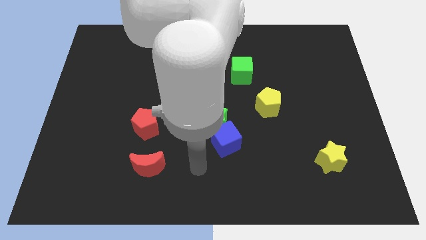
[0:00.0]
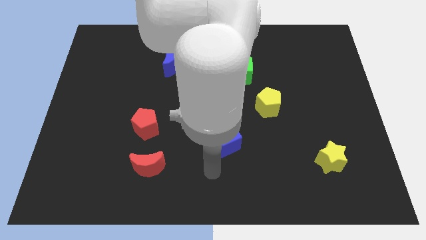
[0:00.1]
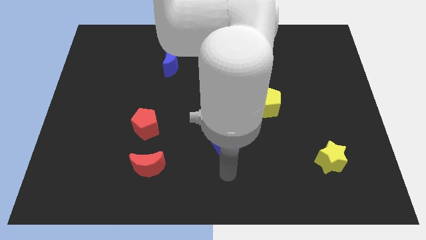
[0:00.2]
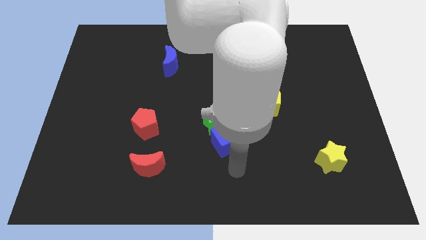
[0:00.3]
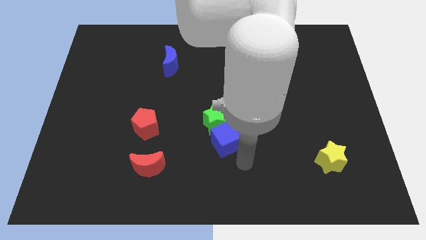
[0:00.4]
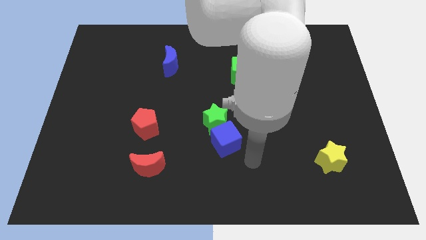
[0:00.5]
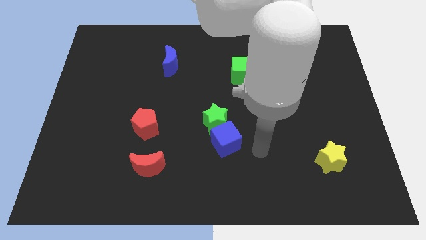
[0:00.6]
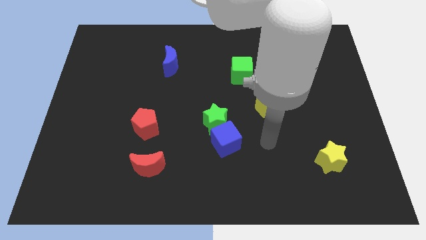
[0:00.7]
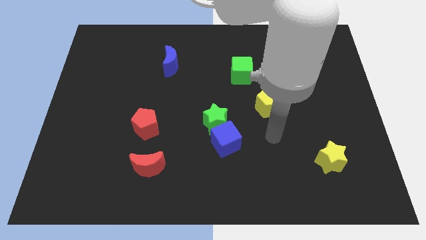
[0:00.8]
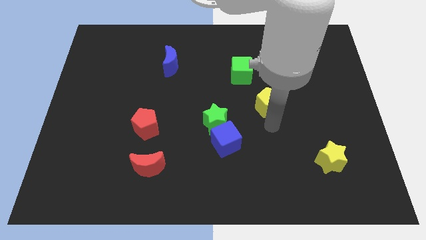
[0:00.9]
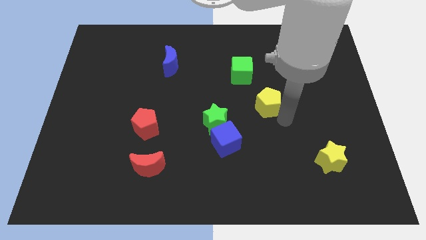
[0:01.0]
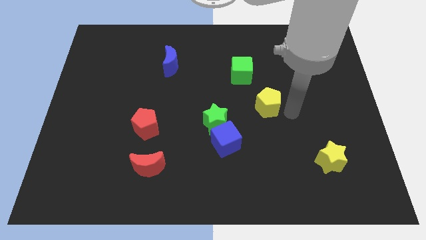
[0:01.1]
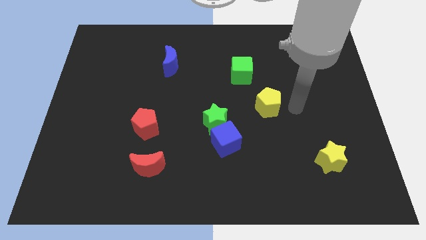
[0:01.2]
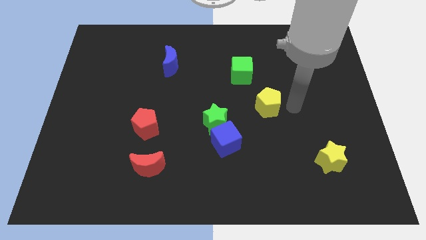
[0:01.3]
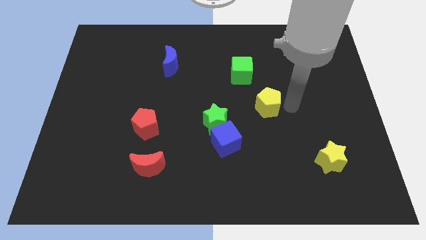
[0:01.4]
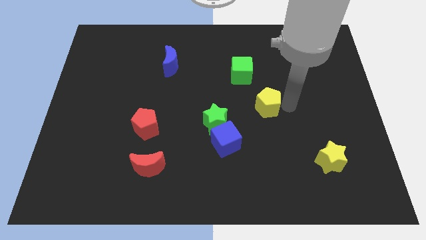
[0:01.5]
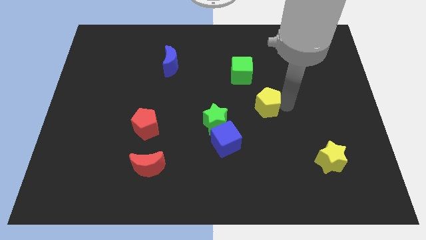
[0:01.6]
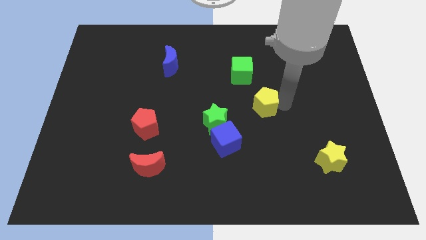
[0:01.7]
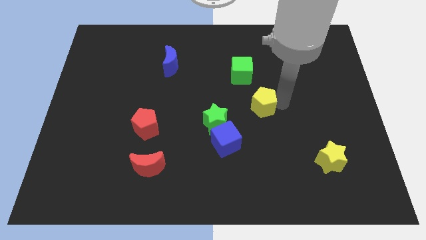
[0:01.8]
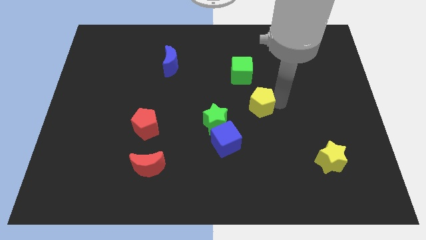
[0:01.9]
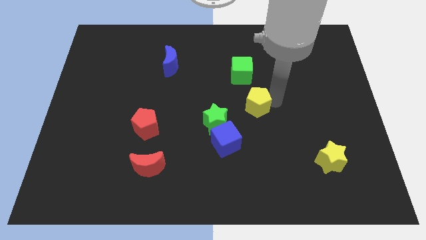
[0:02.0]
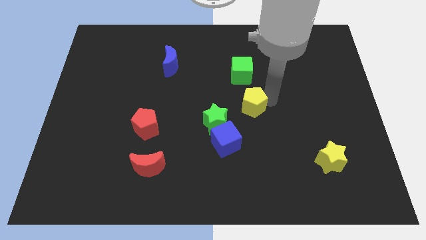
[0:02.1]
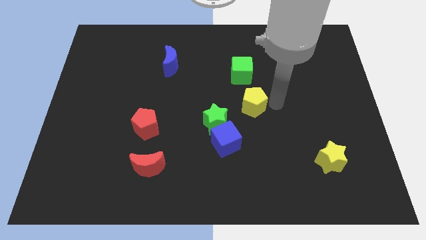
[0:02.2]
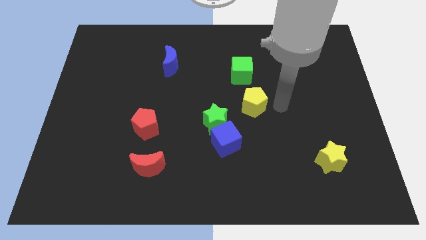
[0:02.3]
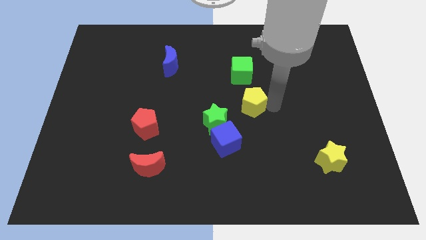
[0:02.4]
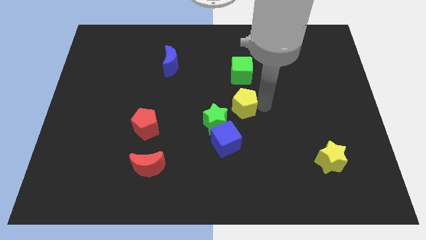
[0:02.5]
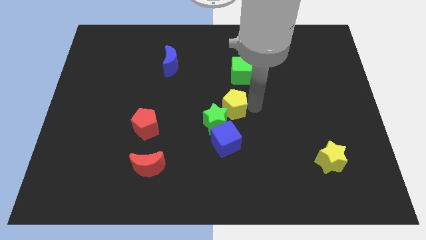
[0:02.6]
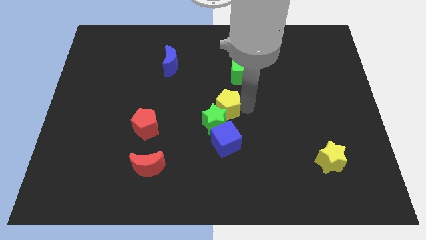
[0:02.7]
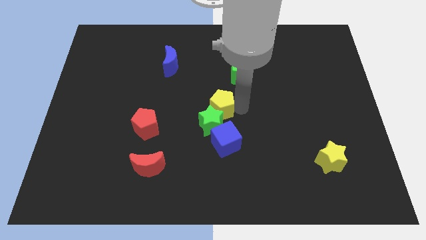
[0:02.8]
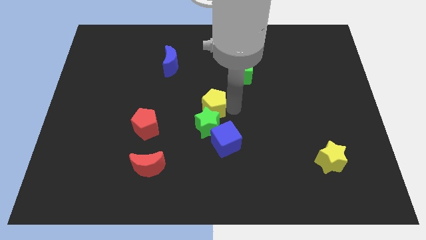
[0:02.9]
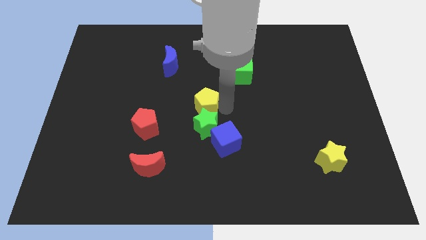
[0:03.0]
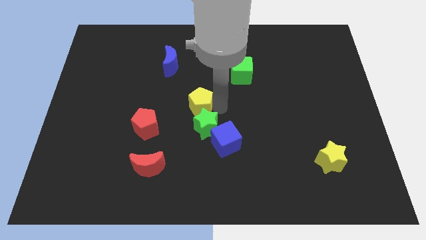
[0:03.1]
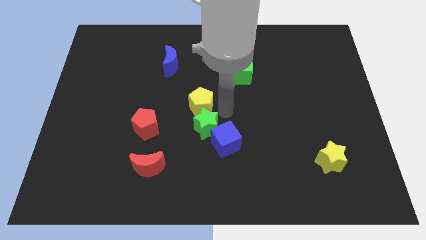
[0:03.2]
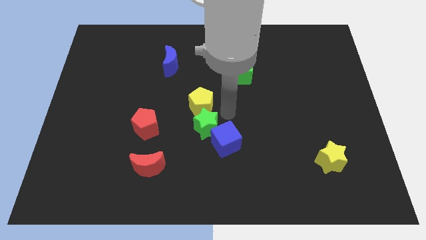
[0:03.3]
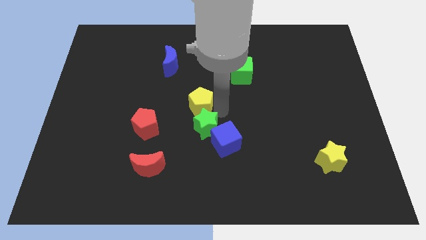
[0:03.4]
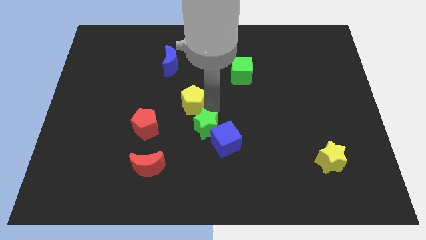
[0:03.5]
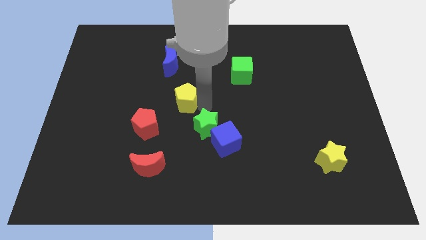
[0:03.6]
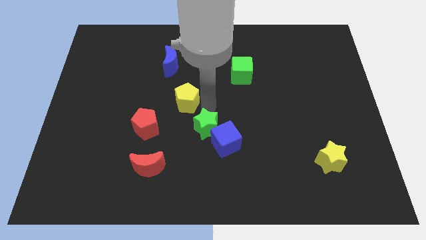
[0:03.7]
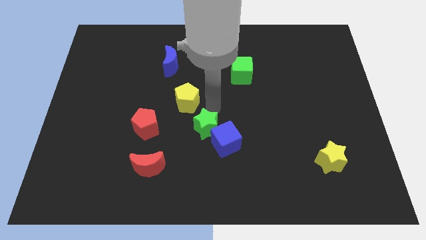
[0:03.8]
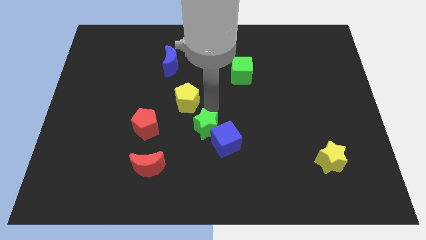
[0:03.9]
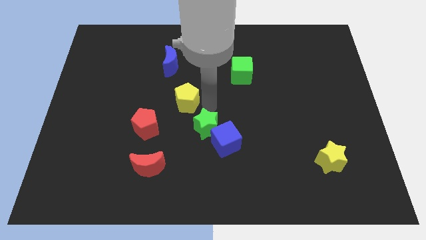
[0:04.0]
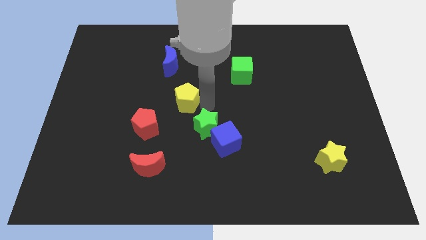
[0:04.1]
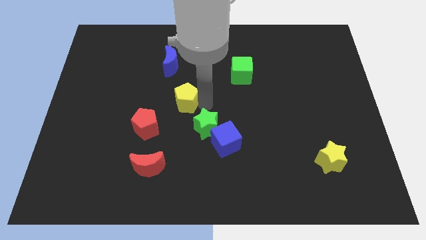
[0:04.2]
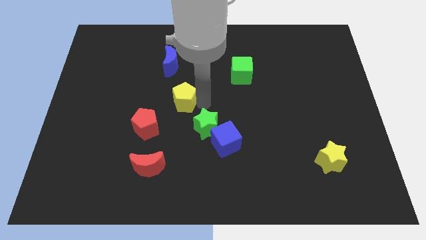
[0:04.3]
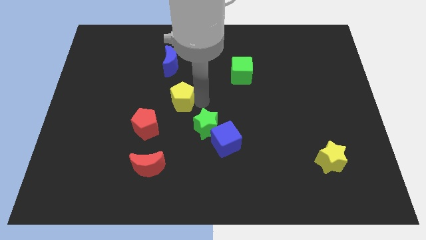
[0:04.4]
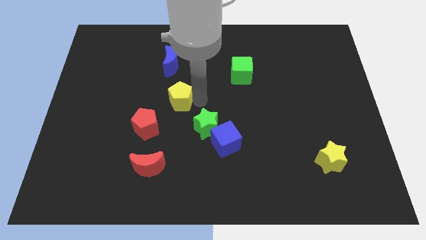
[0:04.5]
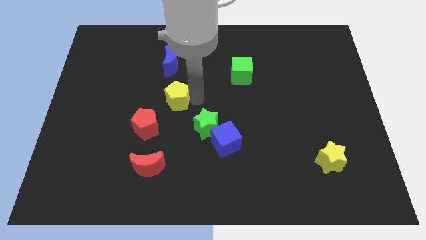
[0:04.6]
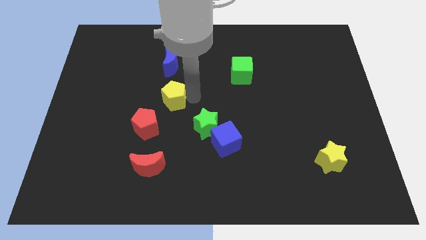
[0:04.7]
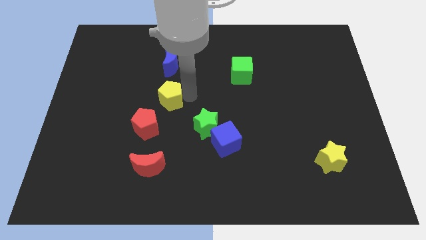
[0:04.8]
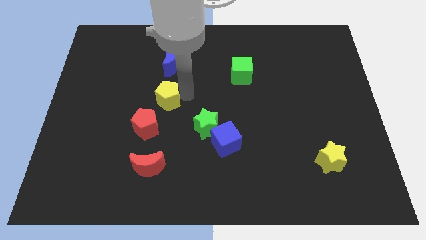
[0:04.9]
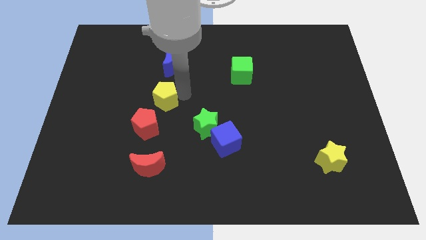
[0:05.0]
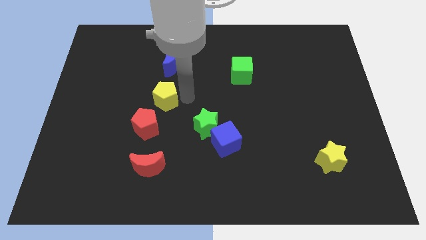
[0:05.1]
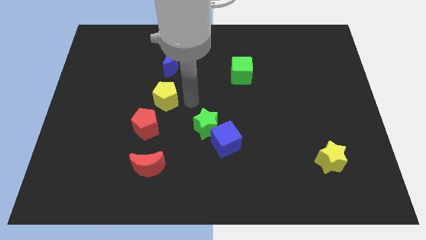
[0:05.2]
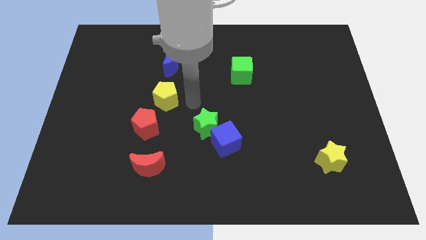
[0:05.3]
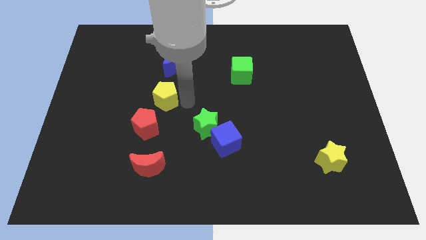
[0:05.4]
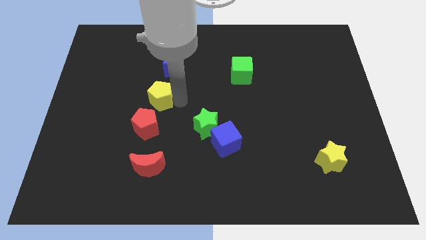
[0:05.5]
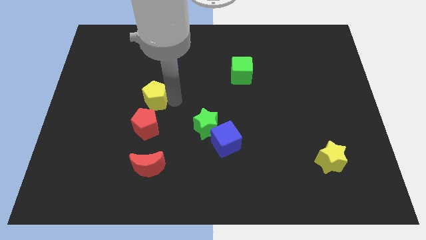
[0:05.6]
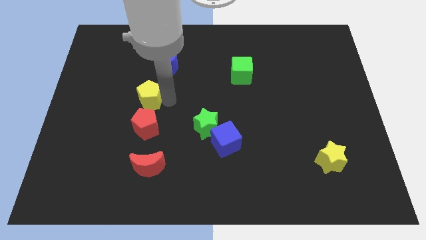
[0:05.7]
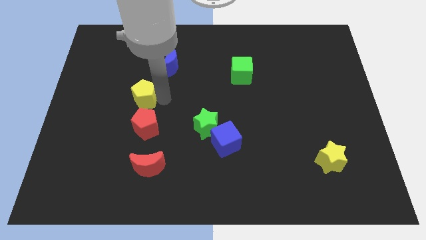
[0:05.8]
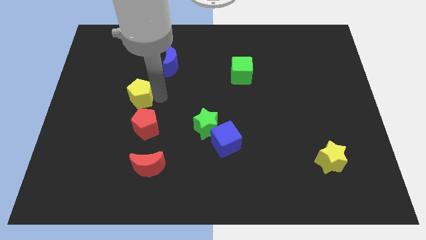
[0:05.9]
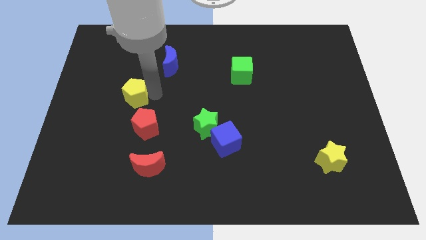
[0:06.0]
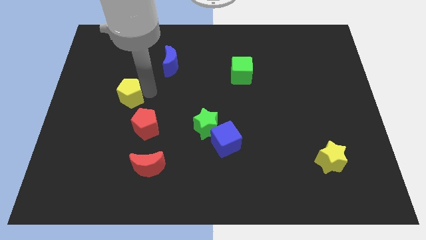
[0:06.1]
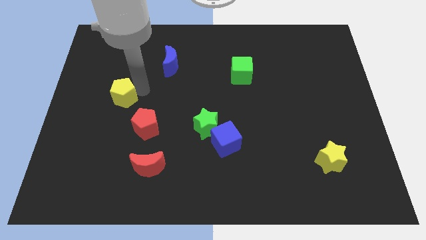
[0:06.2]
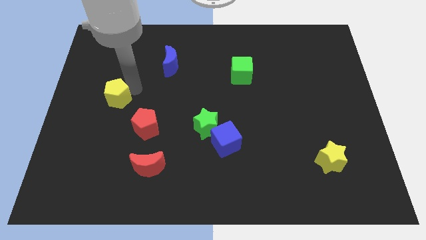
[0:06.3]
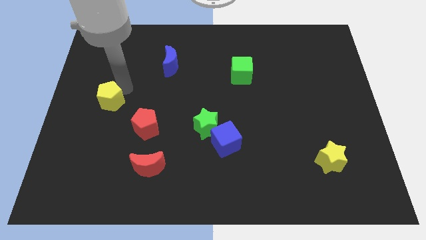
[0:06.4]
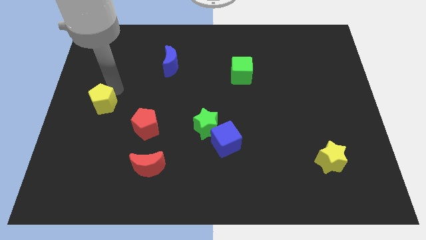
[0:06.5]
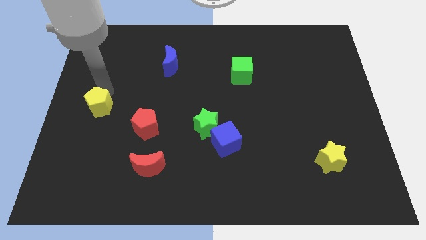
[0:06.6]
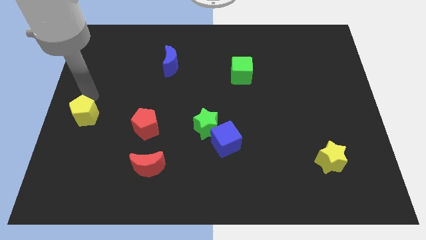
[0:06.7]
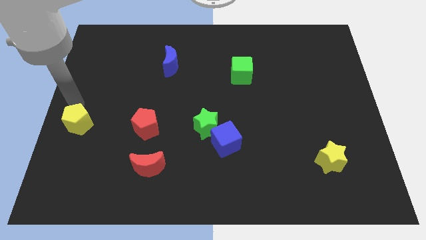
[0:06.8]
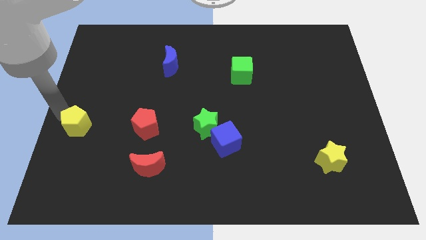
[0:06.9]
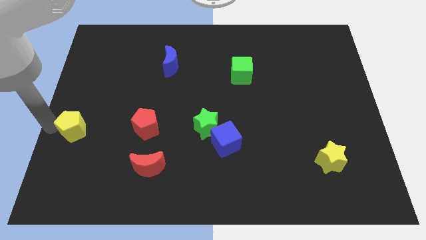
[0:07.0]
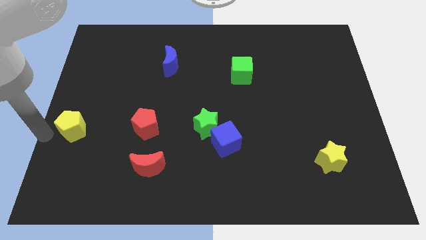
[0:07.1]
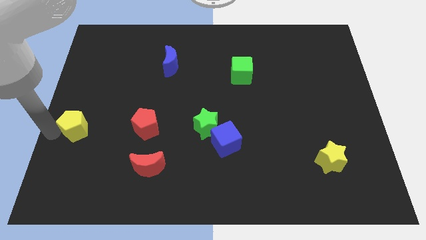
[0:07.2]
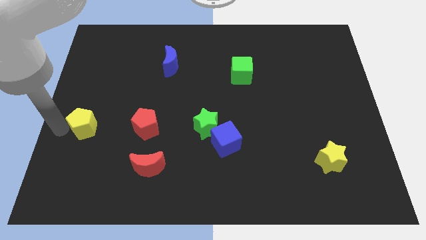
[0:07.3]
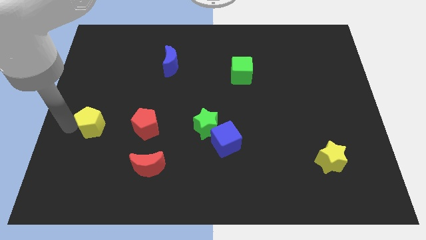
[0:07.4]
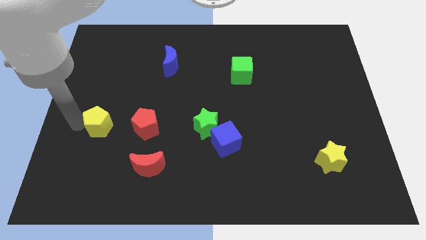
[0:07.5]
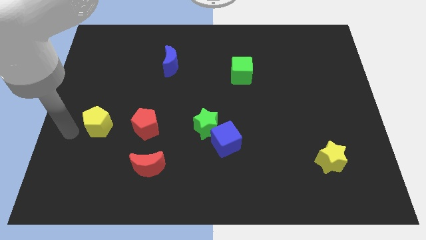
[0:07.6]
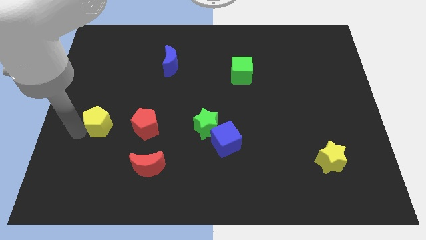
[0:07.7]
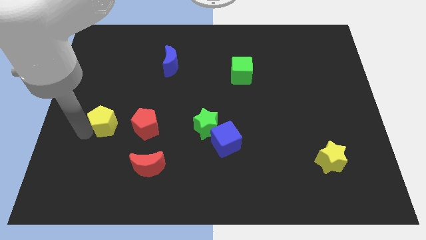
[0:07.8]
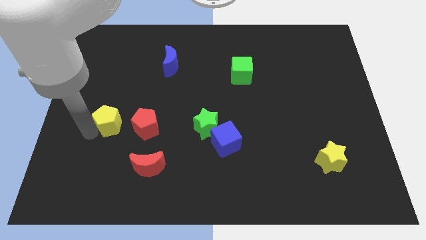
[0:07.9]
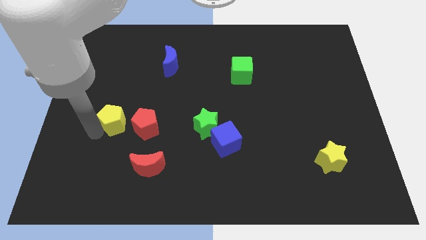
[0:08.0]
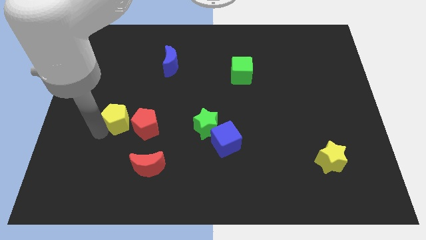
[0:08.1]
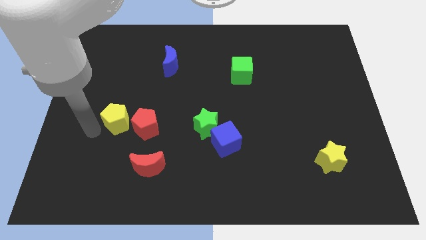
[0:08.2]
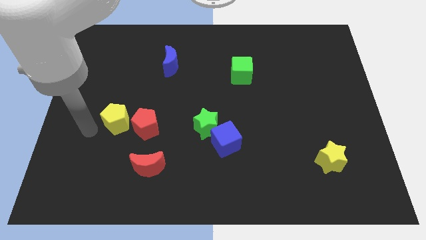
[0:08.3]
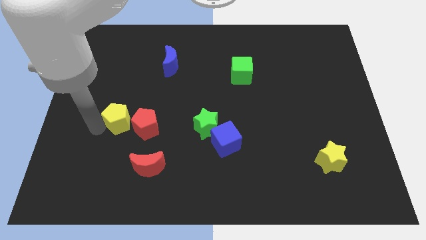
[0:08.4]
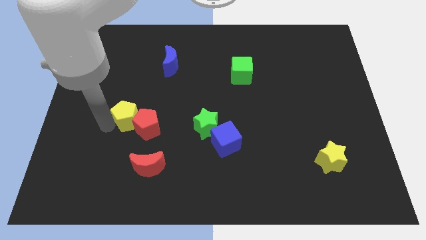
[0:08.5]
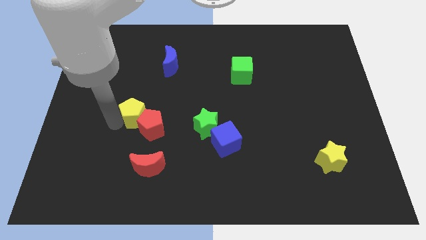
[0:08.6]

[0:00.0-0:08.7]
slide the yellow pentagon above the red moon
